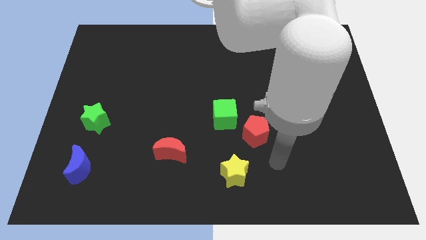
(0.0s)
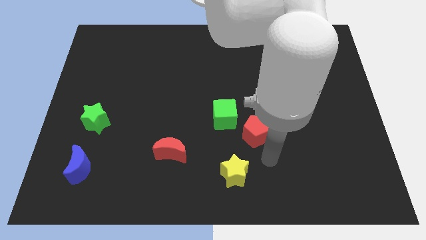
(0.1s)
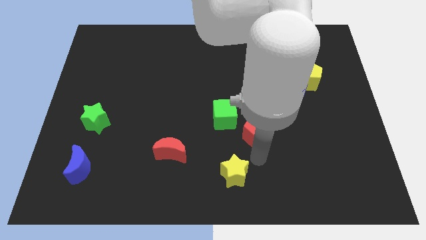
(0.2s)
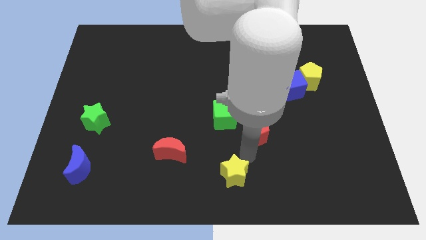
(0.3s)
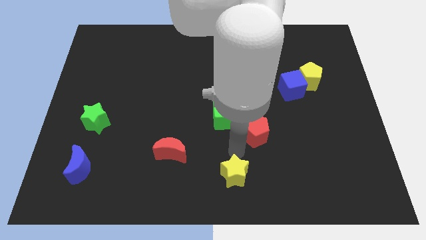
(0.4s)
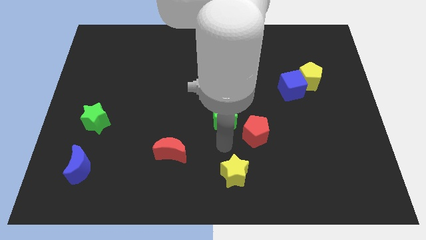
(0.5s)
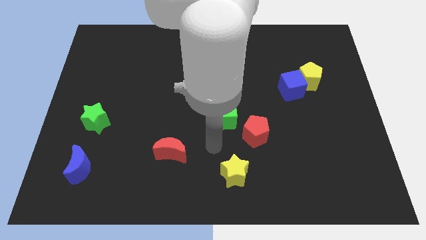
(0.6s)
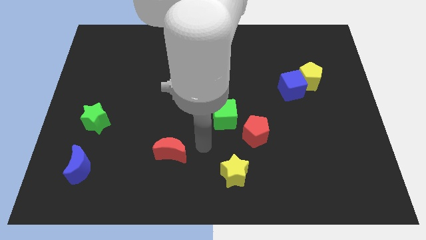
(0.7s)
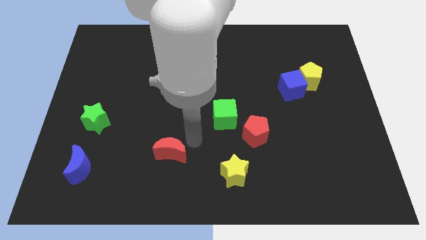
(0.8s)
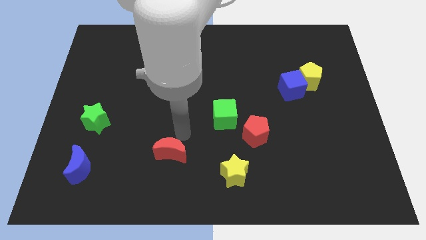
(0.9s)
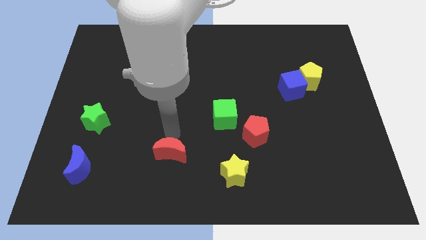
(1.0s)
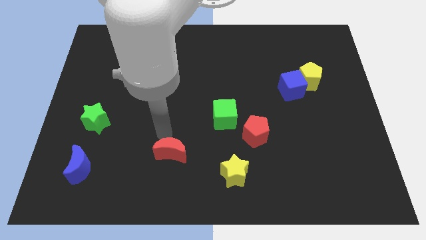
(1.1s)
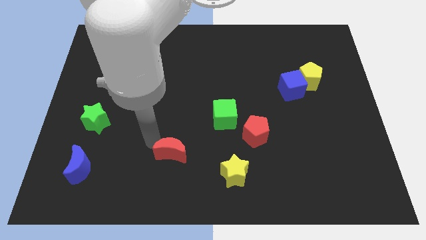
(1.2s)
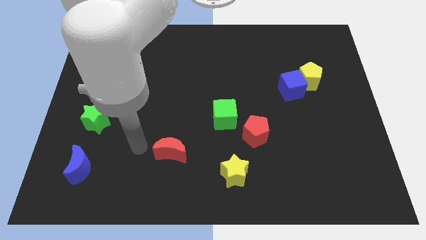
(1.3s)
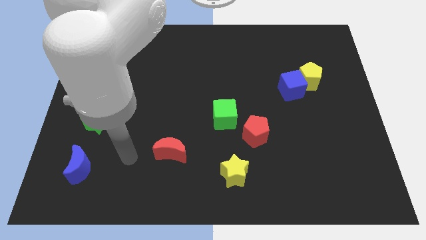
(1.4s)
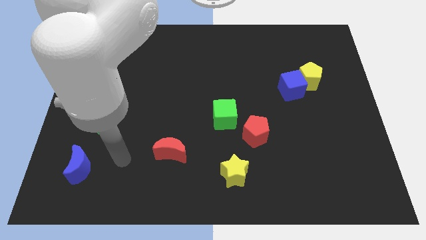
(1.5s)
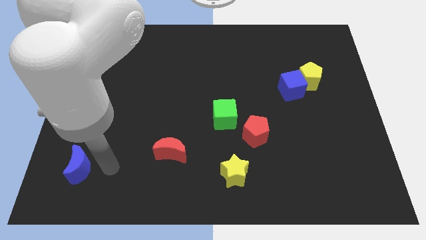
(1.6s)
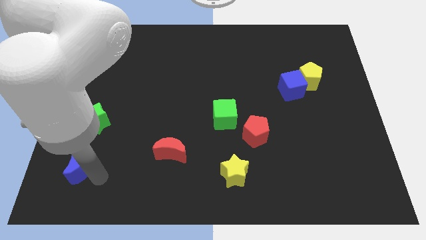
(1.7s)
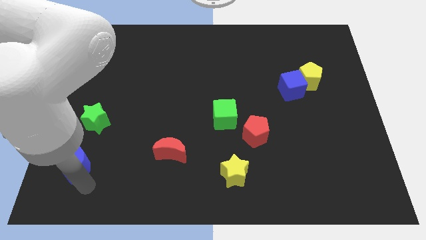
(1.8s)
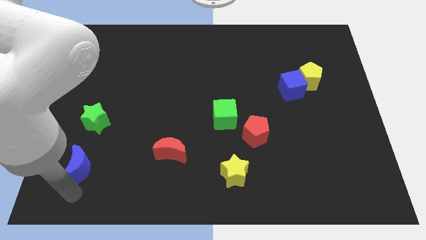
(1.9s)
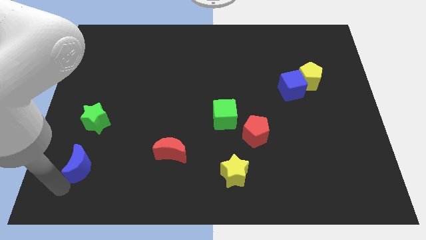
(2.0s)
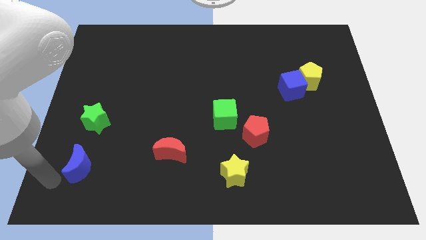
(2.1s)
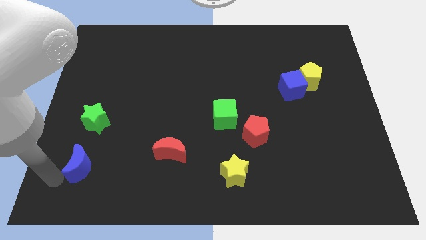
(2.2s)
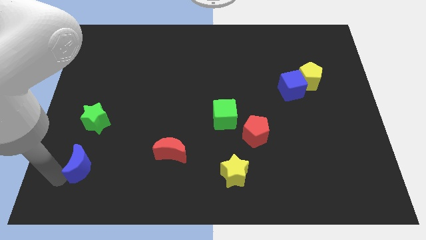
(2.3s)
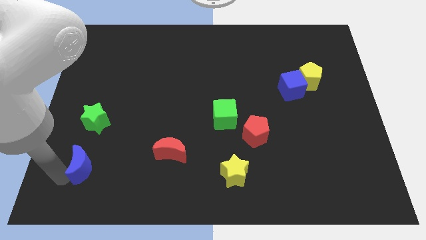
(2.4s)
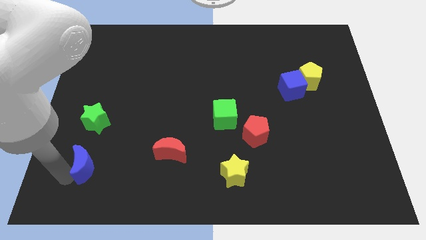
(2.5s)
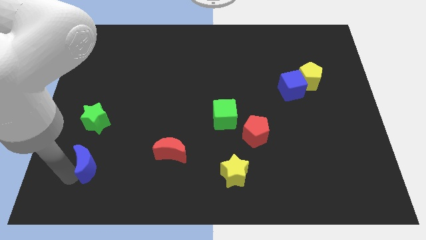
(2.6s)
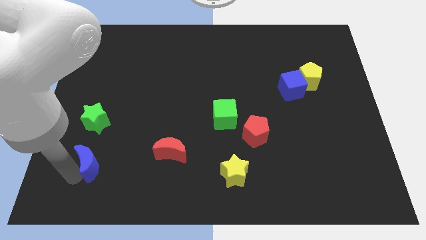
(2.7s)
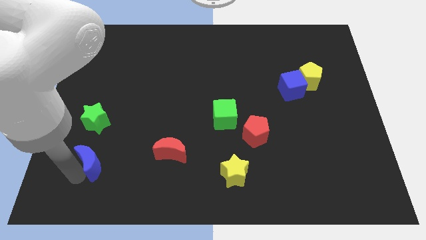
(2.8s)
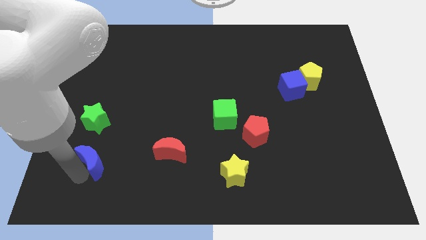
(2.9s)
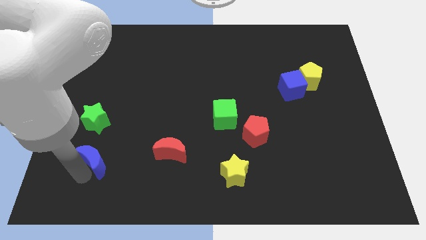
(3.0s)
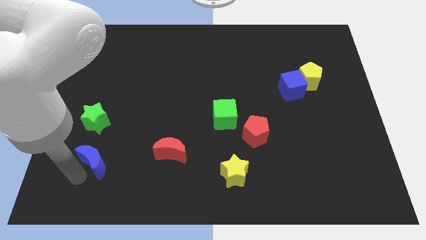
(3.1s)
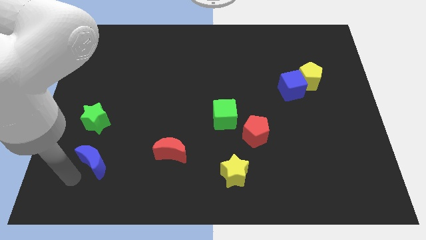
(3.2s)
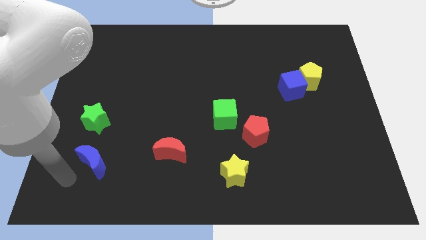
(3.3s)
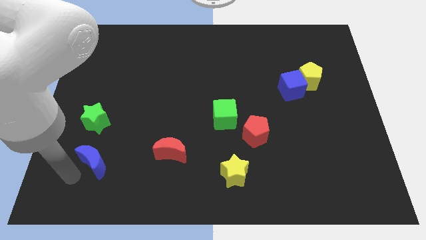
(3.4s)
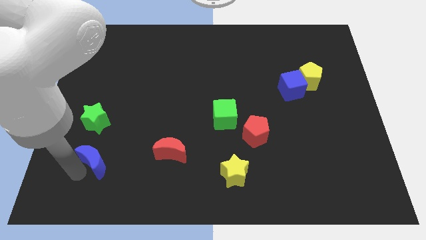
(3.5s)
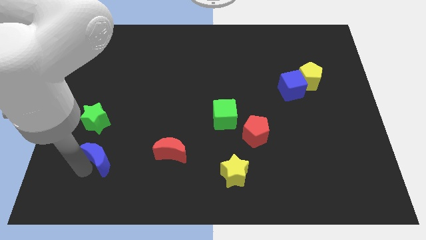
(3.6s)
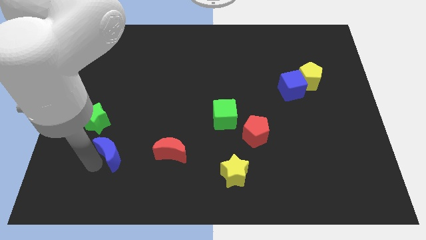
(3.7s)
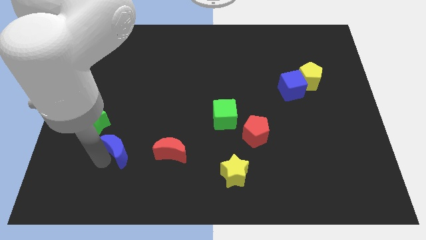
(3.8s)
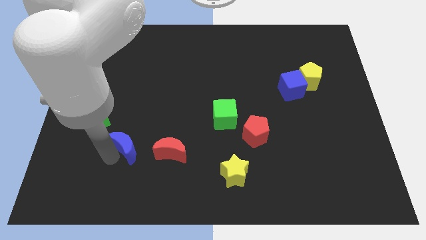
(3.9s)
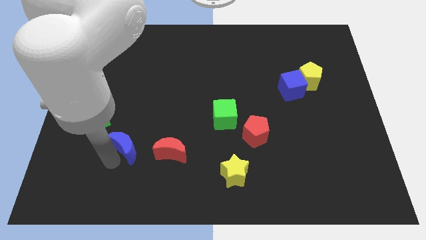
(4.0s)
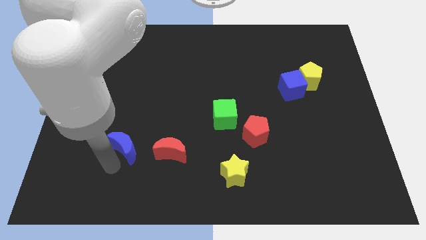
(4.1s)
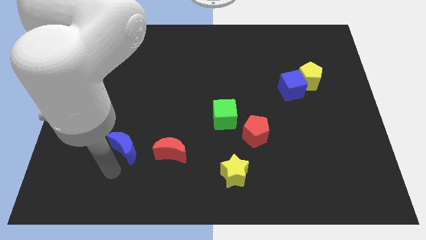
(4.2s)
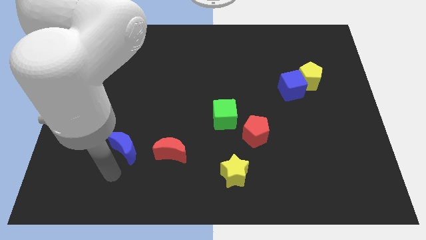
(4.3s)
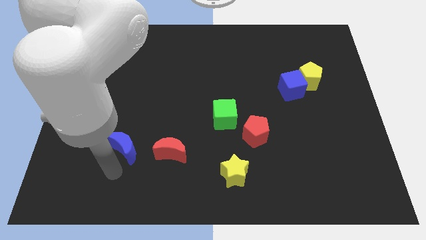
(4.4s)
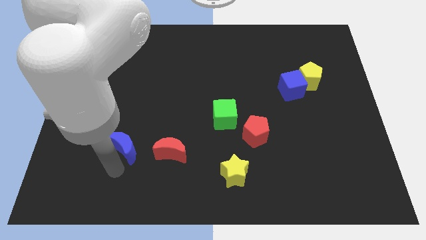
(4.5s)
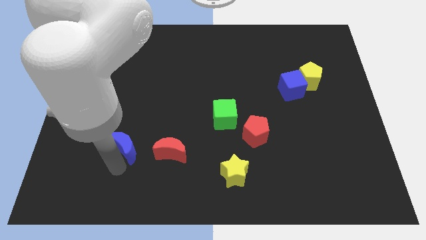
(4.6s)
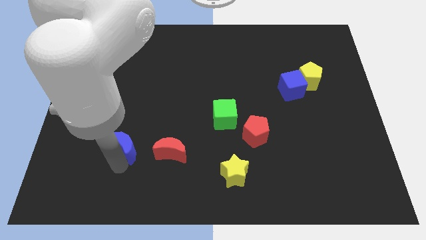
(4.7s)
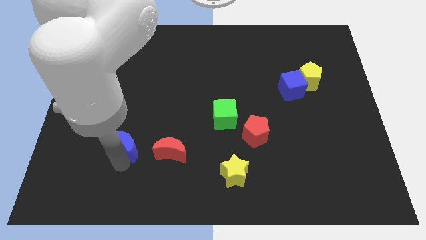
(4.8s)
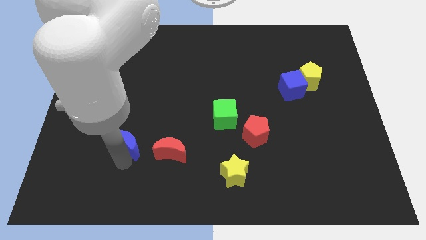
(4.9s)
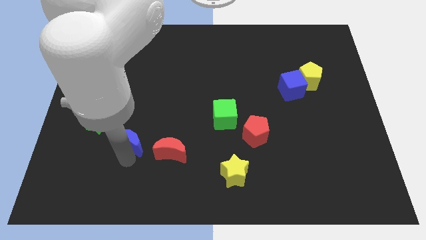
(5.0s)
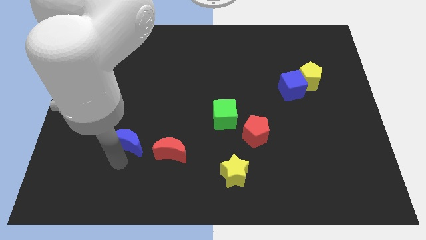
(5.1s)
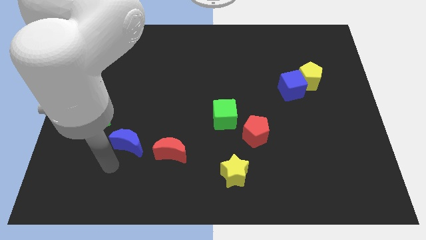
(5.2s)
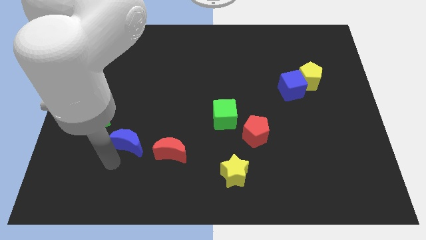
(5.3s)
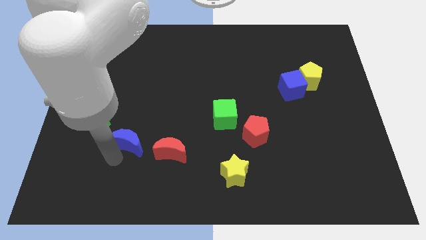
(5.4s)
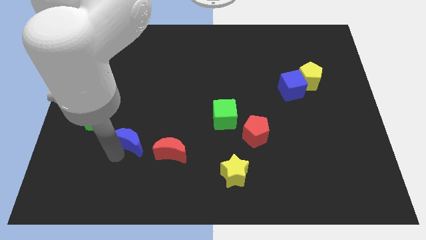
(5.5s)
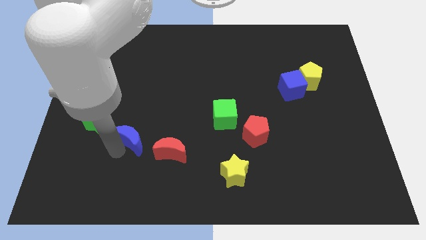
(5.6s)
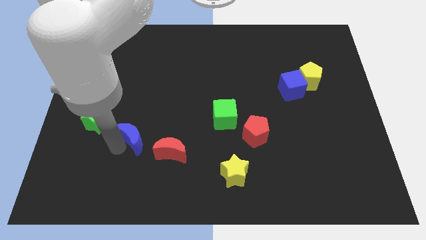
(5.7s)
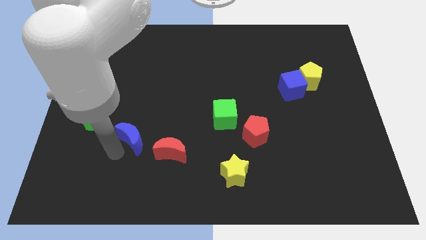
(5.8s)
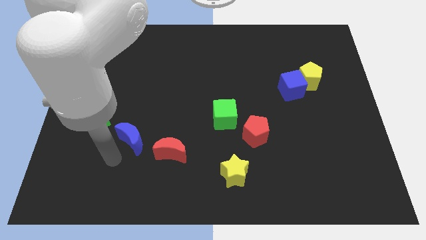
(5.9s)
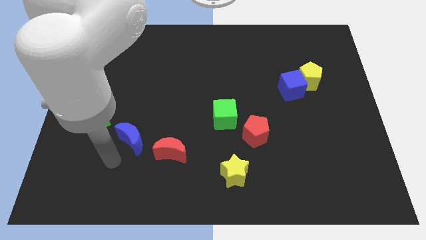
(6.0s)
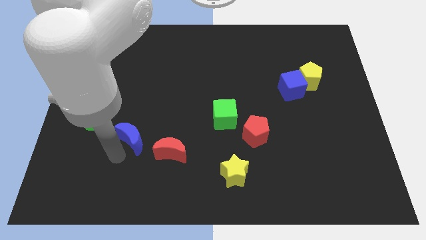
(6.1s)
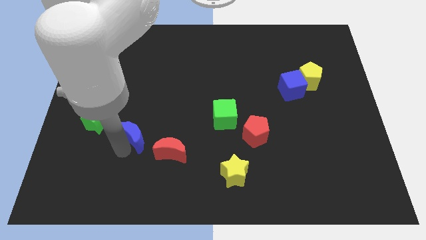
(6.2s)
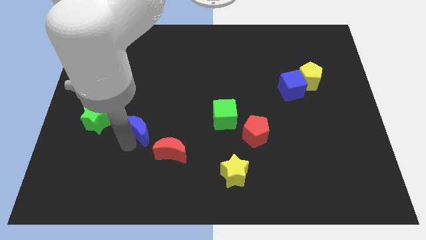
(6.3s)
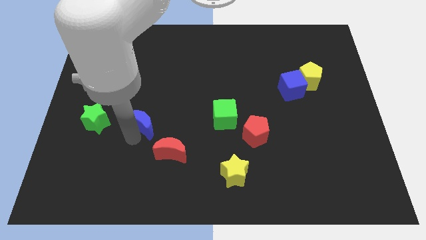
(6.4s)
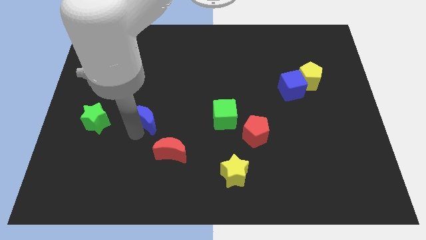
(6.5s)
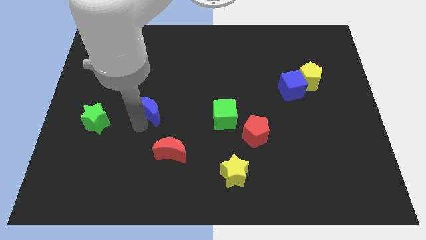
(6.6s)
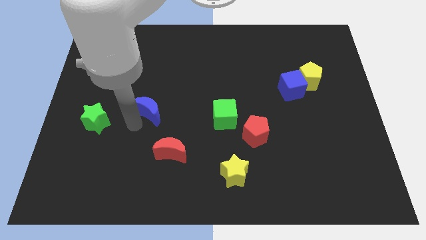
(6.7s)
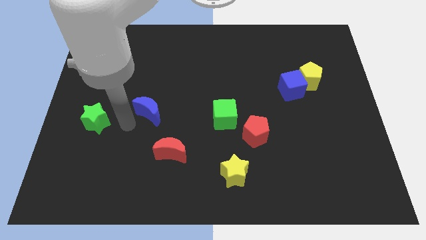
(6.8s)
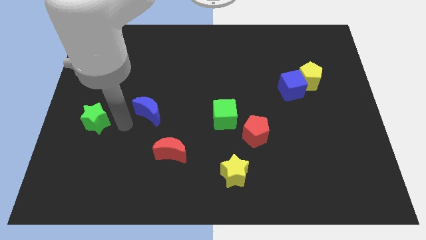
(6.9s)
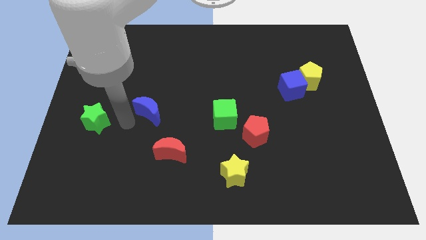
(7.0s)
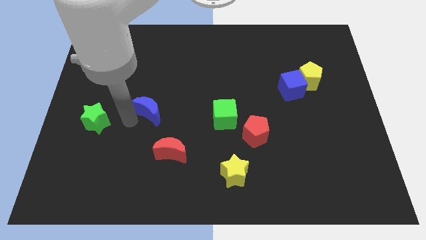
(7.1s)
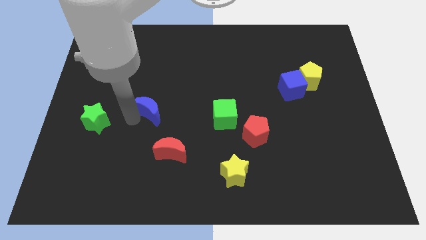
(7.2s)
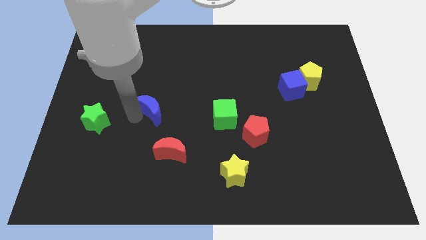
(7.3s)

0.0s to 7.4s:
move the blue moon up and right diagonally

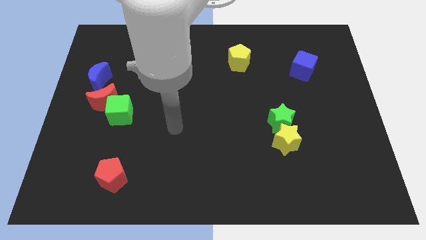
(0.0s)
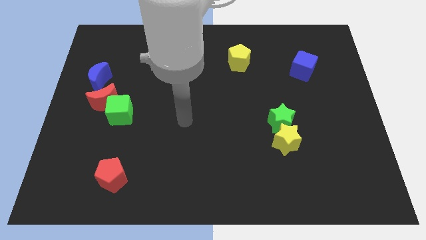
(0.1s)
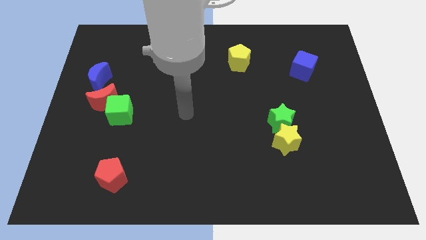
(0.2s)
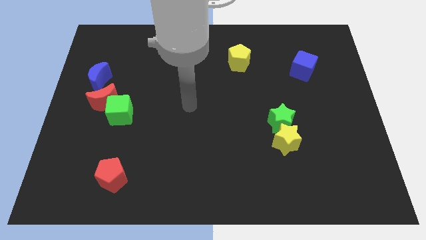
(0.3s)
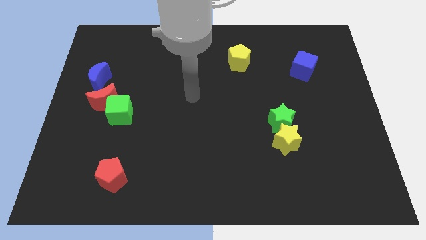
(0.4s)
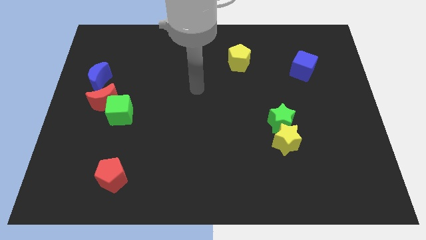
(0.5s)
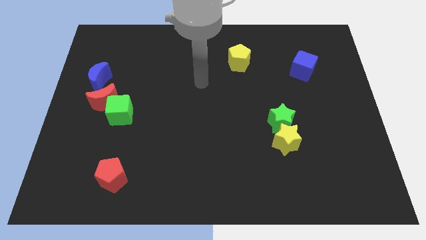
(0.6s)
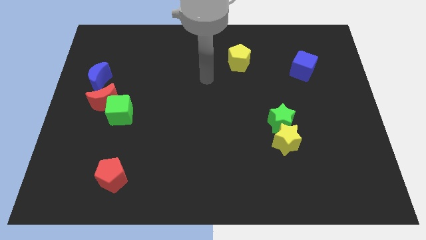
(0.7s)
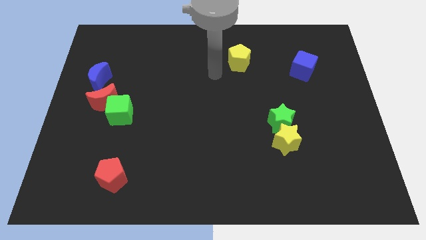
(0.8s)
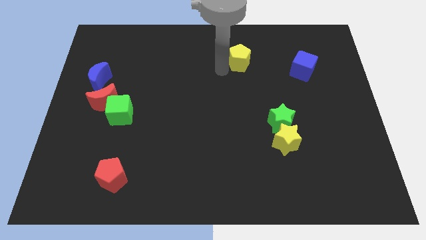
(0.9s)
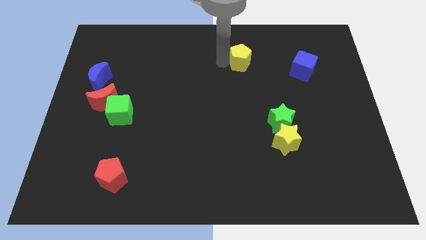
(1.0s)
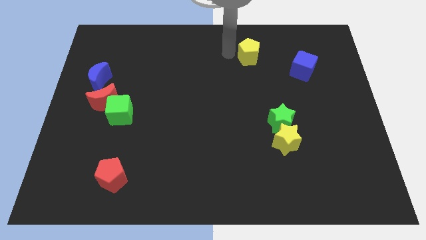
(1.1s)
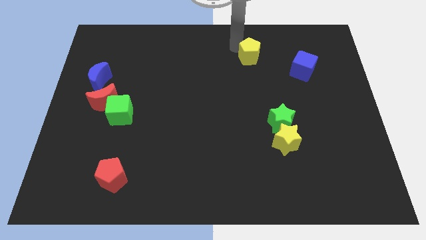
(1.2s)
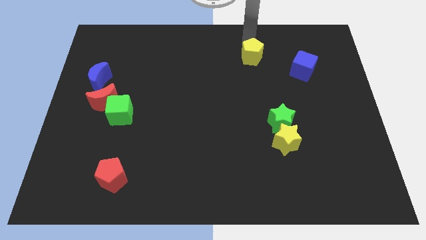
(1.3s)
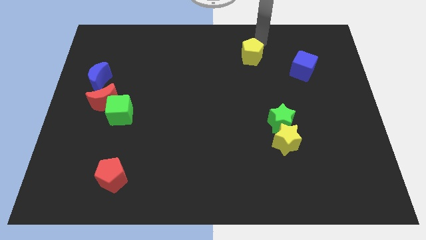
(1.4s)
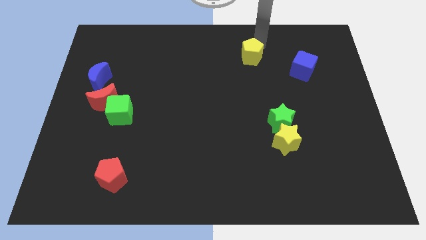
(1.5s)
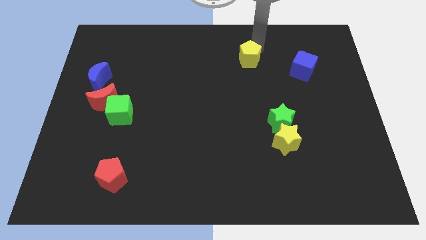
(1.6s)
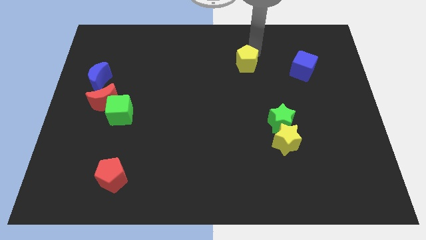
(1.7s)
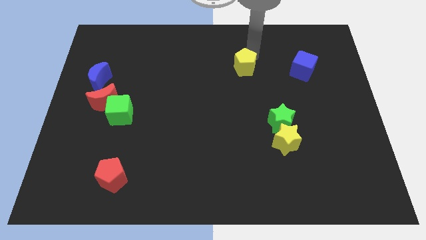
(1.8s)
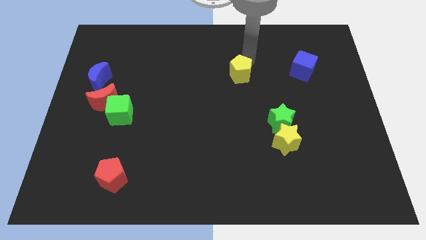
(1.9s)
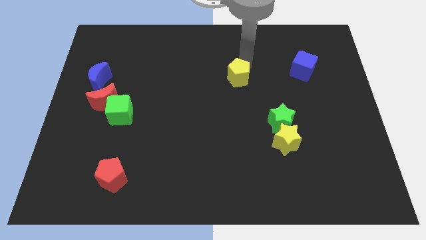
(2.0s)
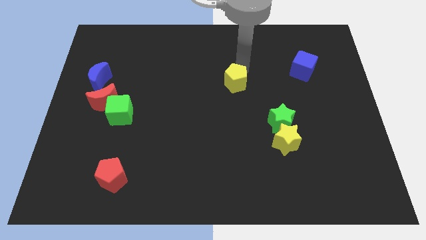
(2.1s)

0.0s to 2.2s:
move the yellow pentagon downwards a little
